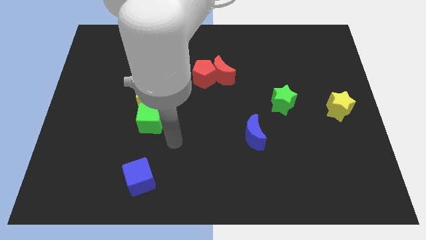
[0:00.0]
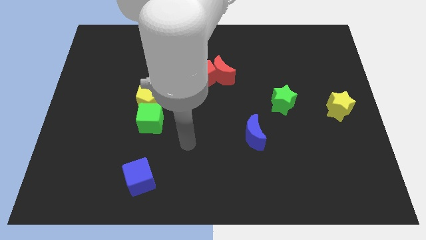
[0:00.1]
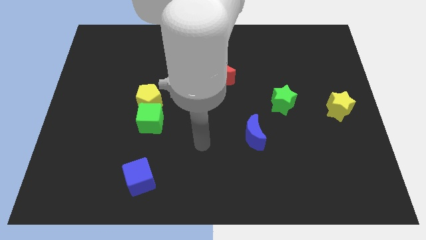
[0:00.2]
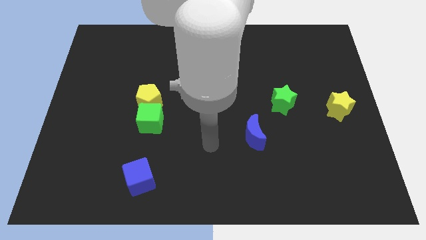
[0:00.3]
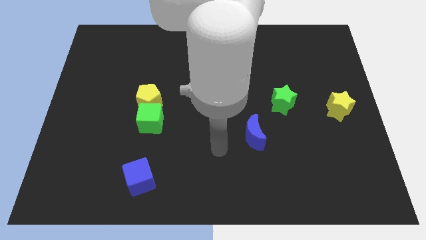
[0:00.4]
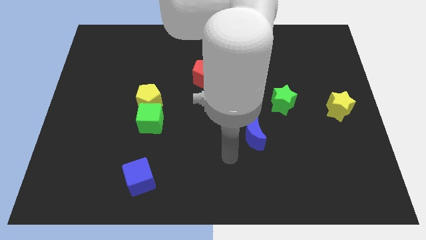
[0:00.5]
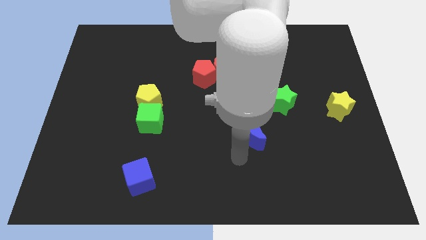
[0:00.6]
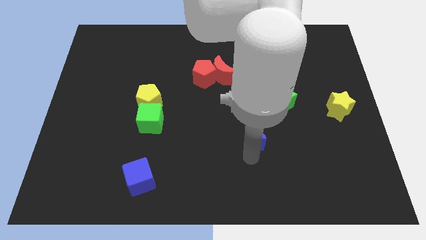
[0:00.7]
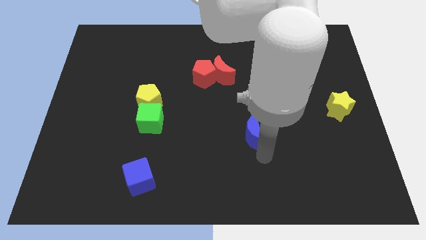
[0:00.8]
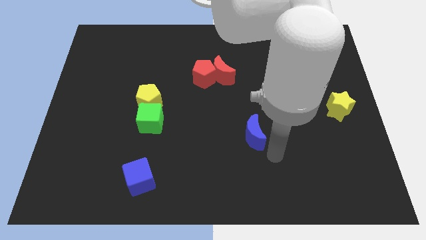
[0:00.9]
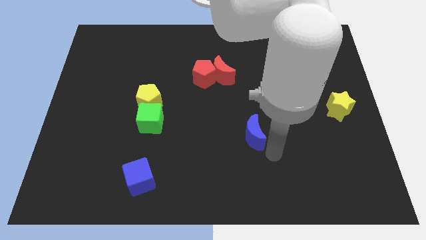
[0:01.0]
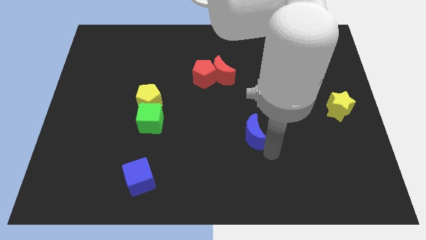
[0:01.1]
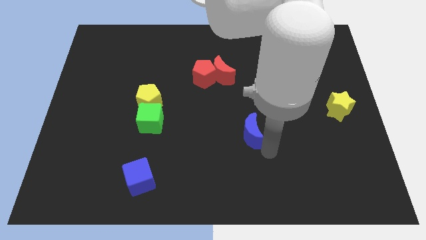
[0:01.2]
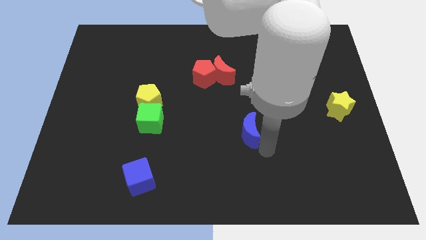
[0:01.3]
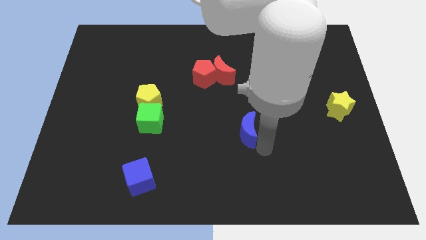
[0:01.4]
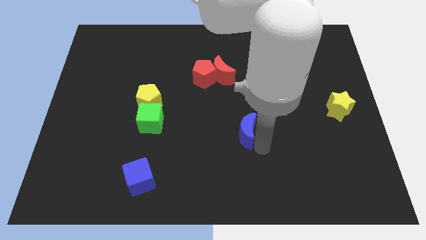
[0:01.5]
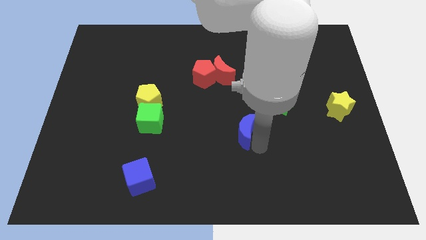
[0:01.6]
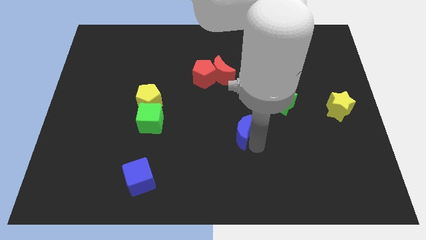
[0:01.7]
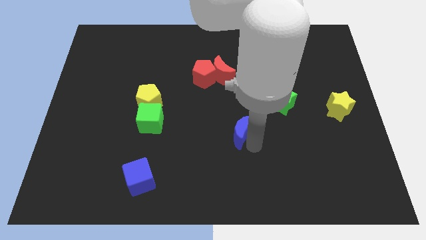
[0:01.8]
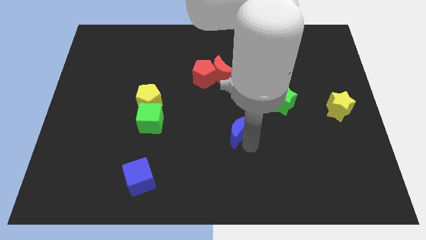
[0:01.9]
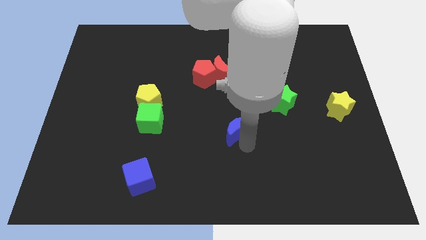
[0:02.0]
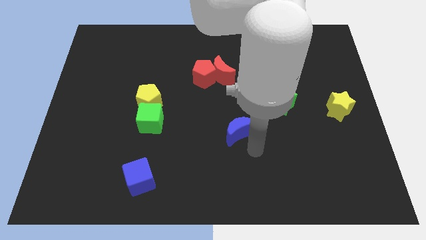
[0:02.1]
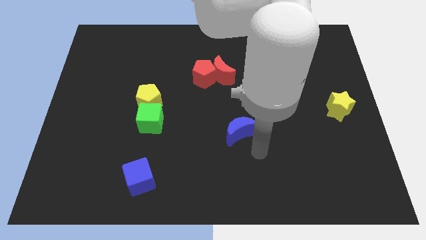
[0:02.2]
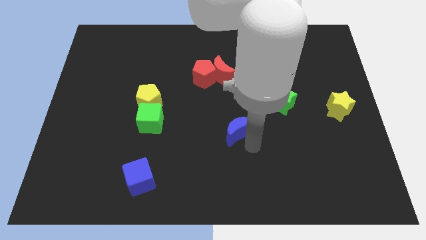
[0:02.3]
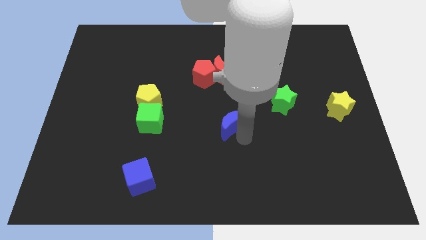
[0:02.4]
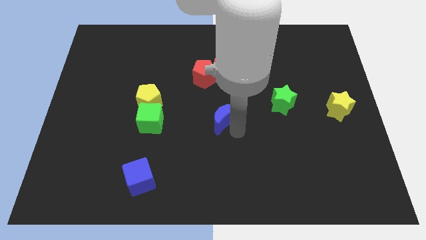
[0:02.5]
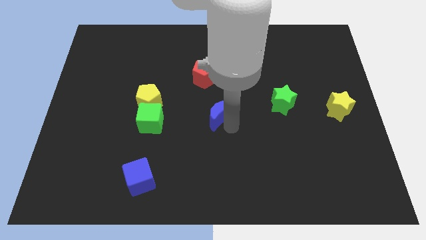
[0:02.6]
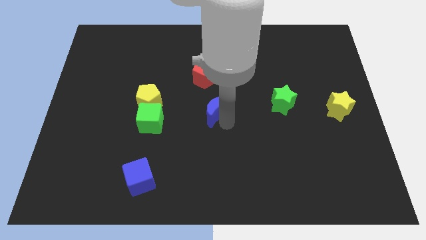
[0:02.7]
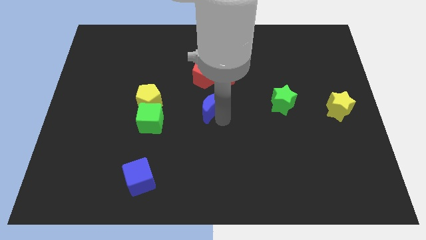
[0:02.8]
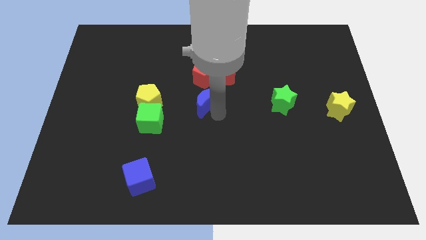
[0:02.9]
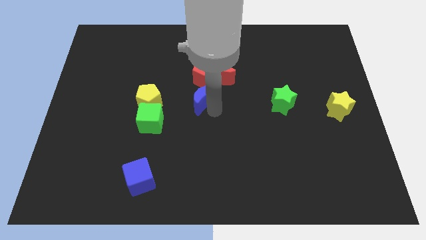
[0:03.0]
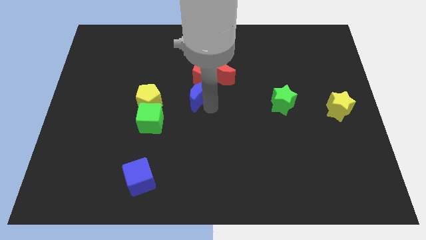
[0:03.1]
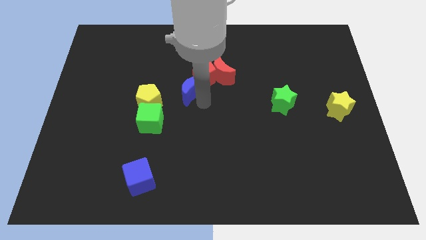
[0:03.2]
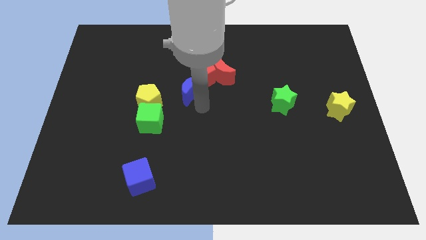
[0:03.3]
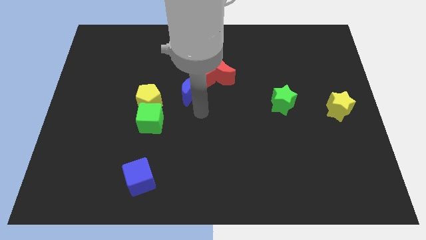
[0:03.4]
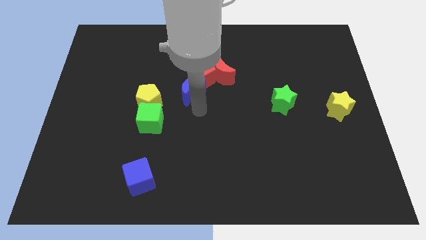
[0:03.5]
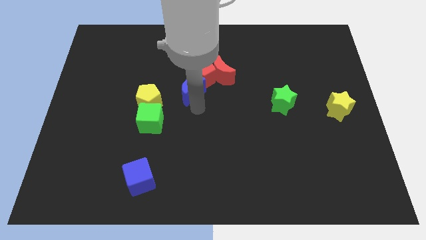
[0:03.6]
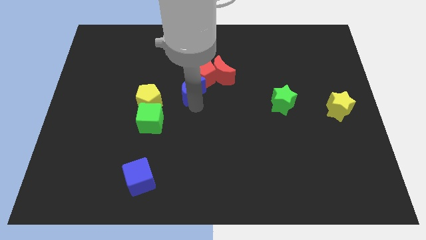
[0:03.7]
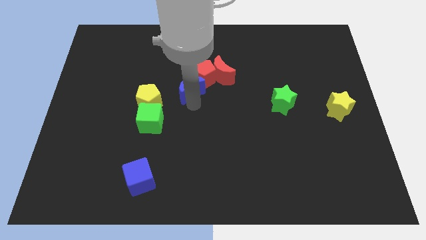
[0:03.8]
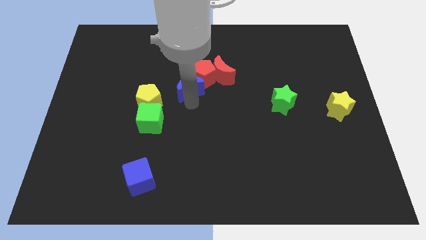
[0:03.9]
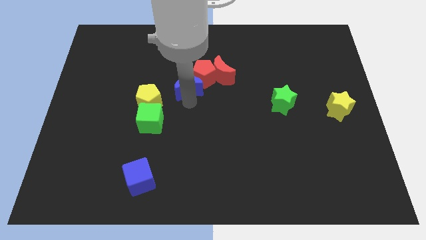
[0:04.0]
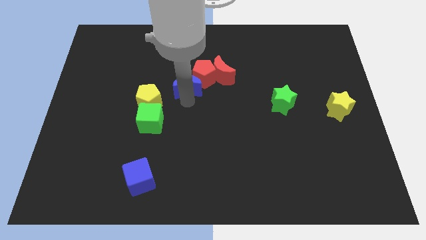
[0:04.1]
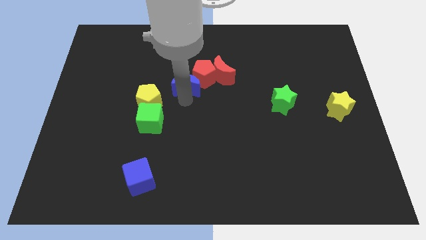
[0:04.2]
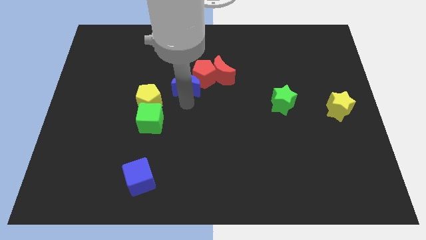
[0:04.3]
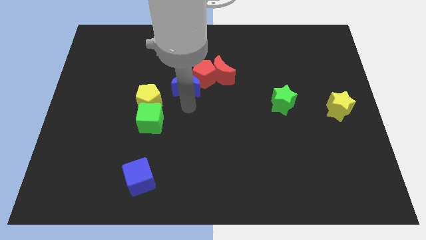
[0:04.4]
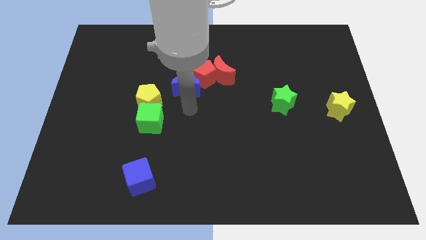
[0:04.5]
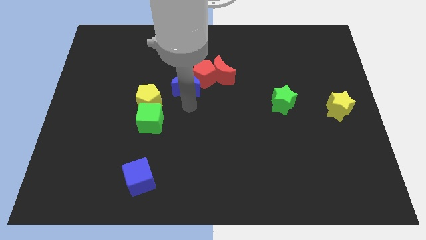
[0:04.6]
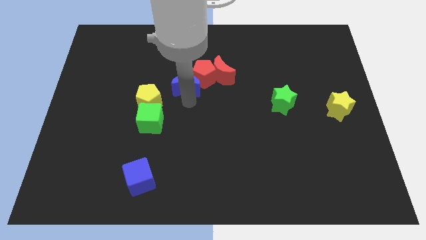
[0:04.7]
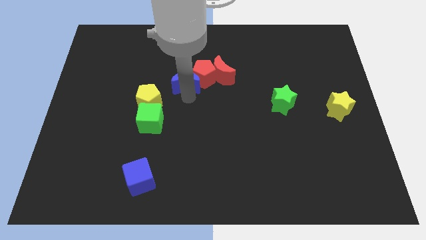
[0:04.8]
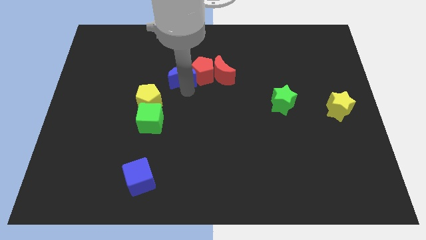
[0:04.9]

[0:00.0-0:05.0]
move the blue moon to the top left of the red pentagon

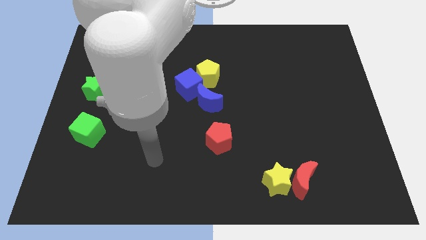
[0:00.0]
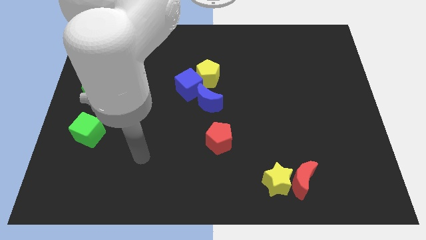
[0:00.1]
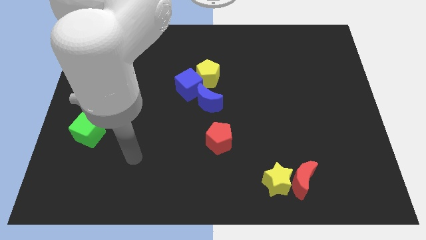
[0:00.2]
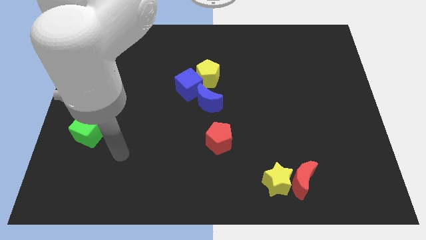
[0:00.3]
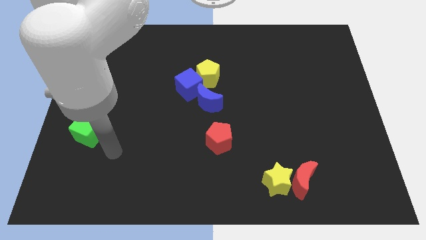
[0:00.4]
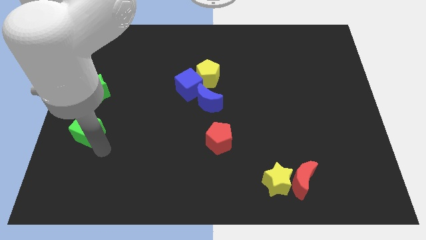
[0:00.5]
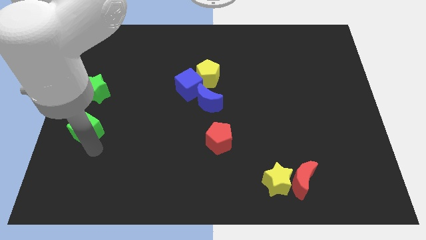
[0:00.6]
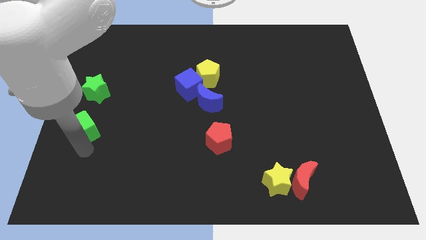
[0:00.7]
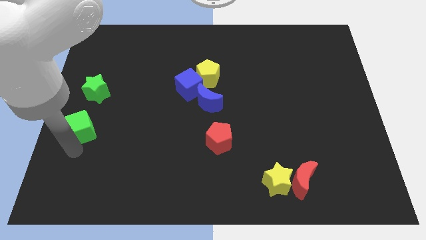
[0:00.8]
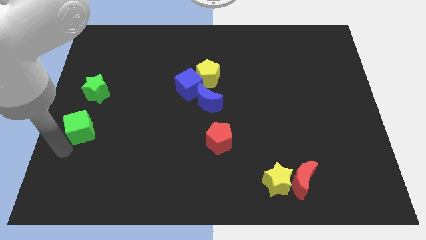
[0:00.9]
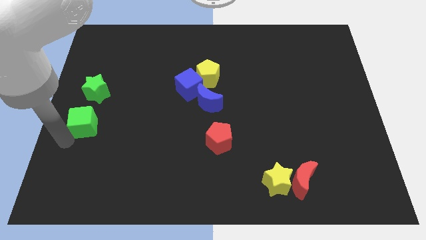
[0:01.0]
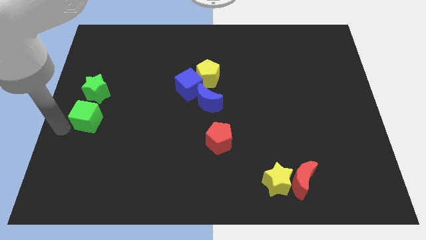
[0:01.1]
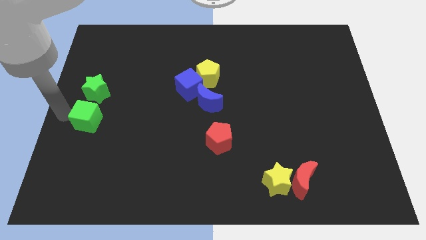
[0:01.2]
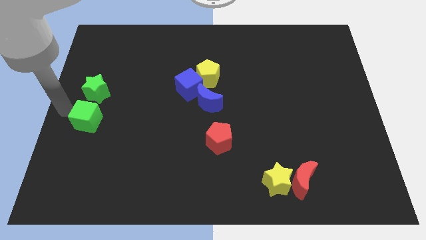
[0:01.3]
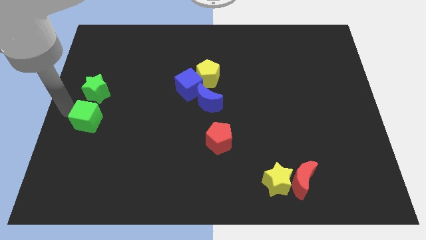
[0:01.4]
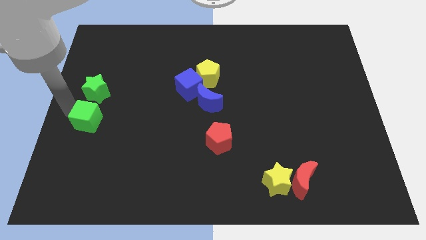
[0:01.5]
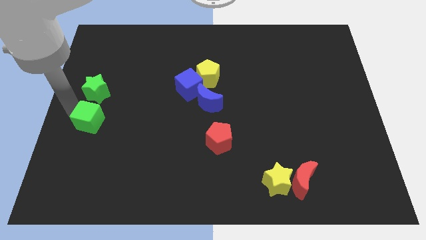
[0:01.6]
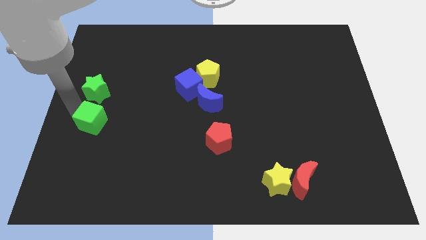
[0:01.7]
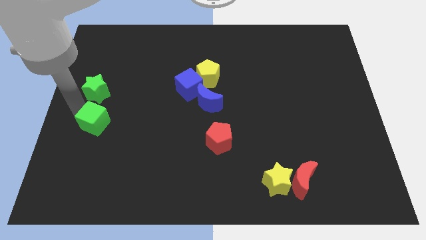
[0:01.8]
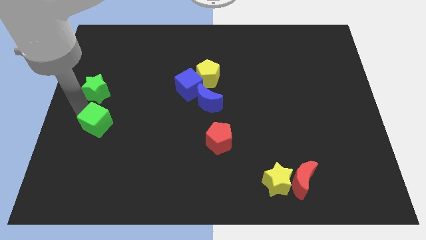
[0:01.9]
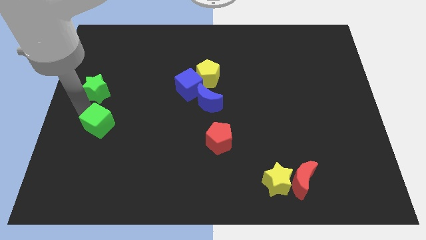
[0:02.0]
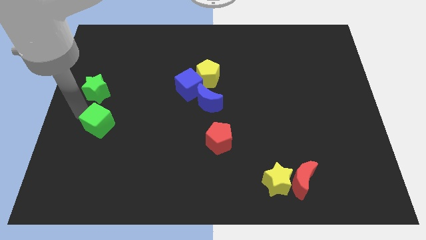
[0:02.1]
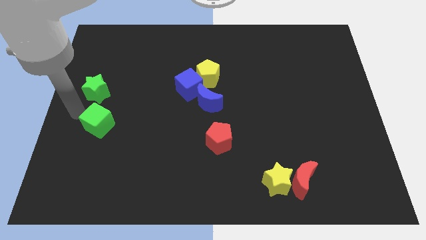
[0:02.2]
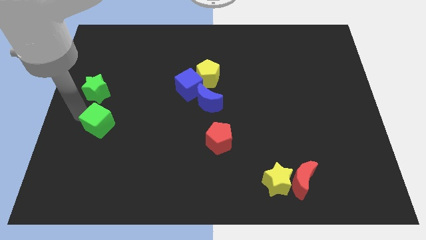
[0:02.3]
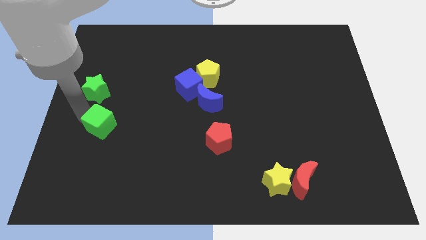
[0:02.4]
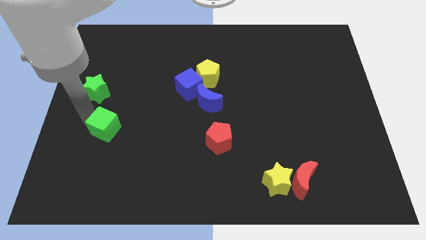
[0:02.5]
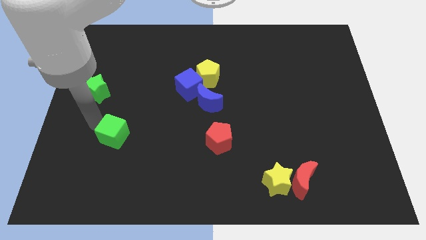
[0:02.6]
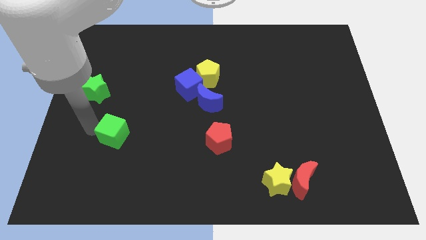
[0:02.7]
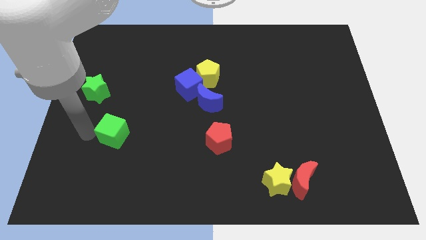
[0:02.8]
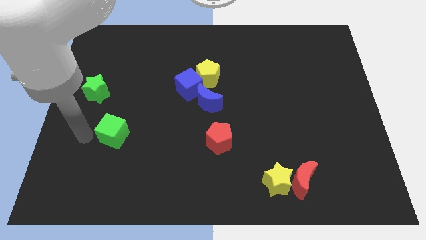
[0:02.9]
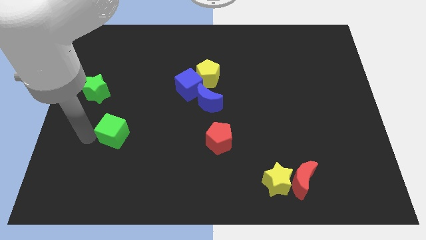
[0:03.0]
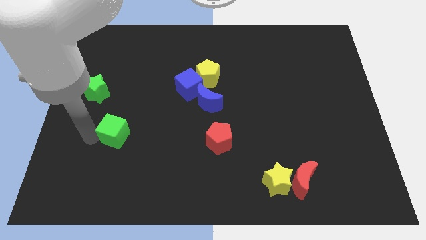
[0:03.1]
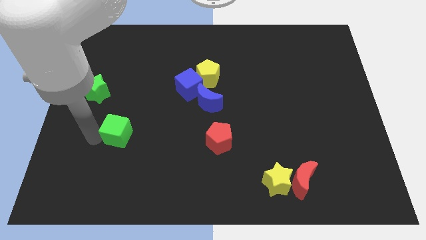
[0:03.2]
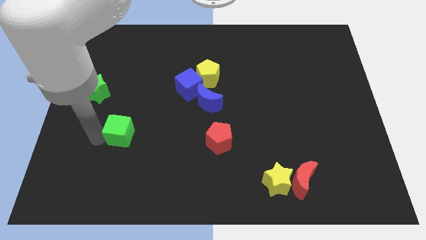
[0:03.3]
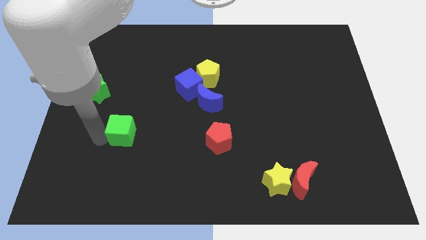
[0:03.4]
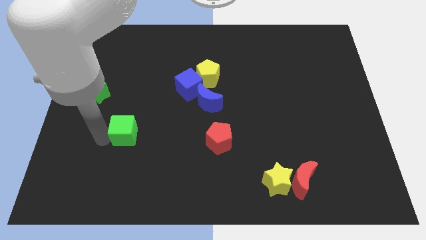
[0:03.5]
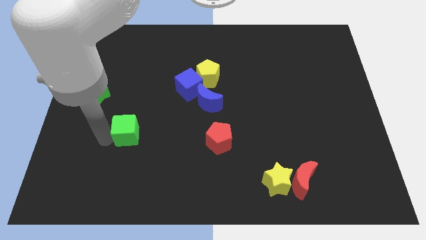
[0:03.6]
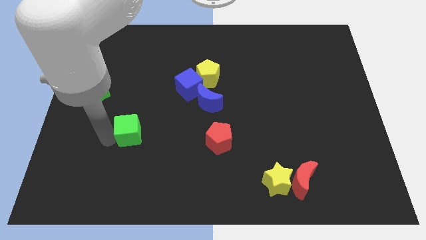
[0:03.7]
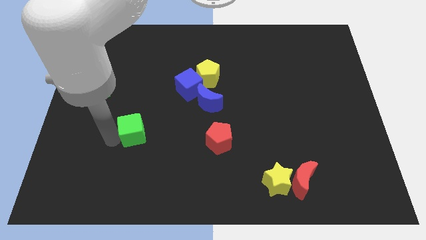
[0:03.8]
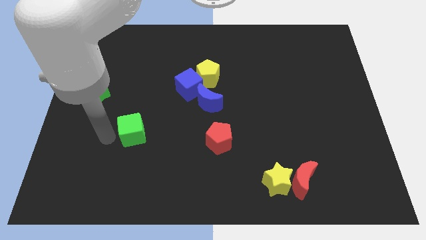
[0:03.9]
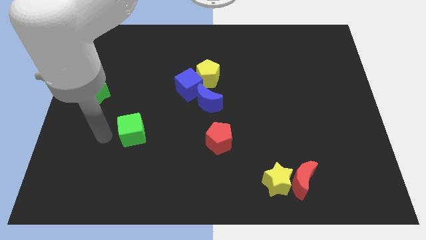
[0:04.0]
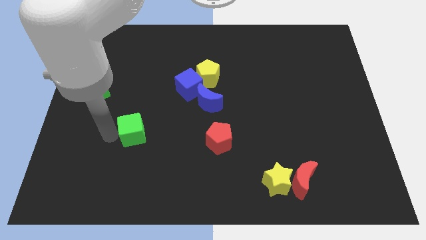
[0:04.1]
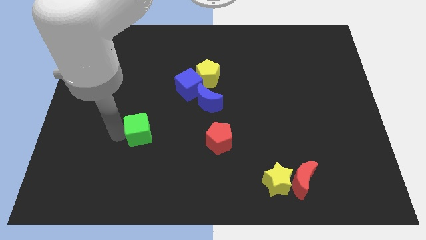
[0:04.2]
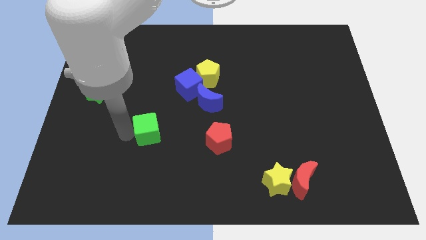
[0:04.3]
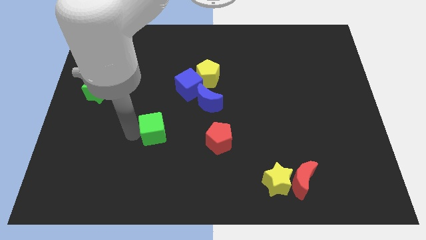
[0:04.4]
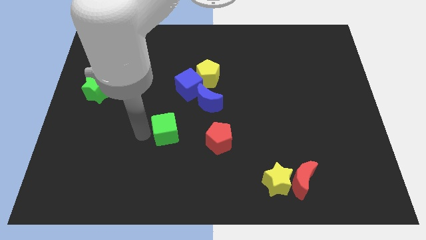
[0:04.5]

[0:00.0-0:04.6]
push the green cube to the bottom side of the blue cube
